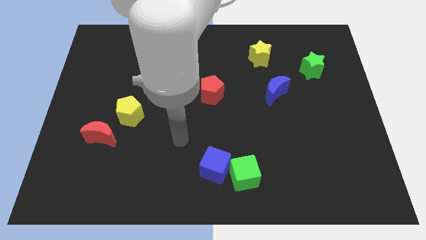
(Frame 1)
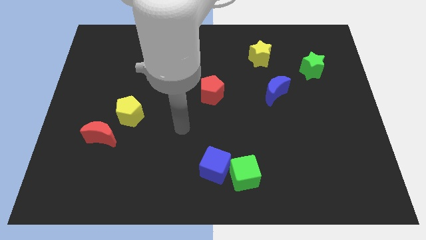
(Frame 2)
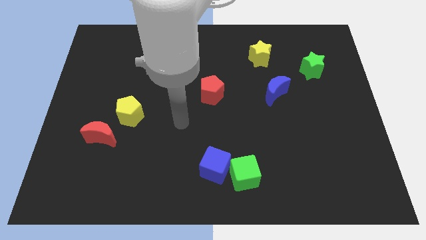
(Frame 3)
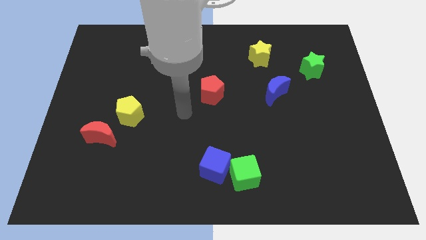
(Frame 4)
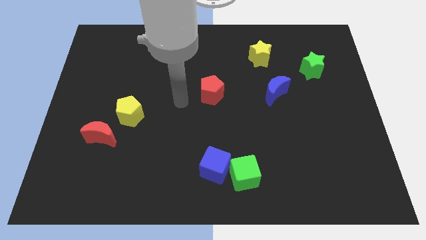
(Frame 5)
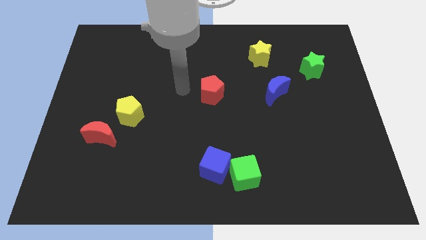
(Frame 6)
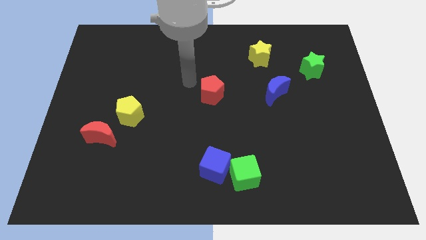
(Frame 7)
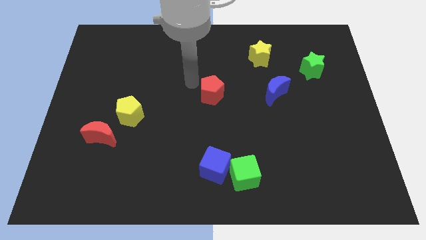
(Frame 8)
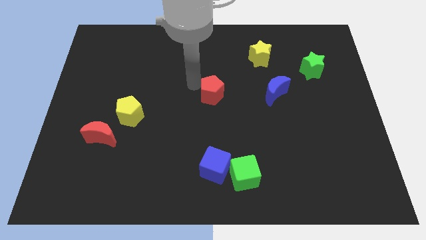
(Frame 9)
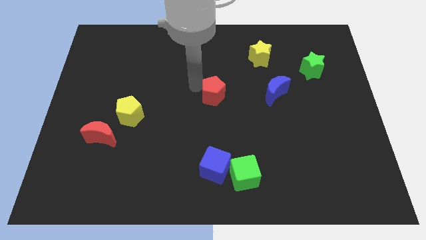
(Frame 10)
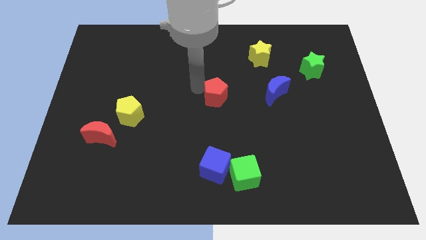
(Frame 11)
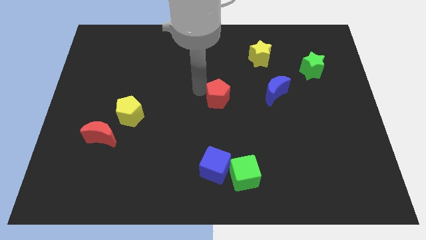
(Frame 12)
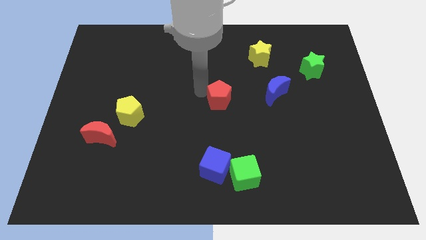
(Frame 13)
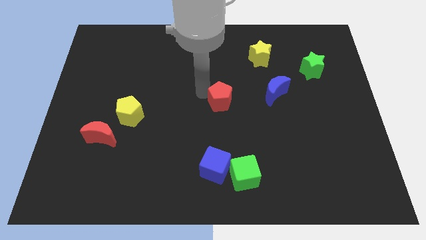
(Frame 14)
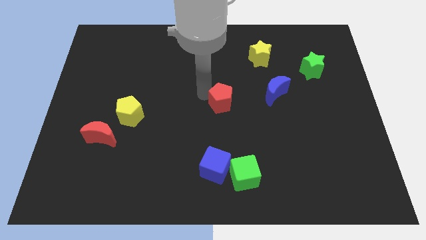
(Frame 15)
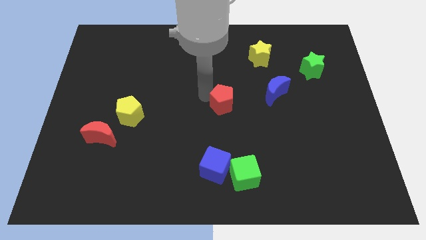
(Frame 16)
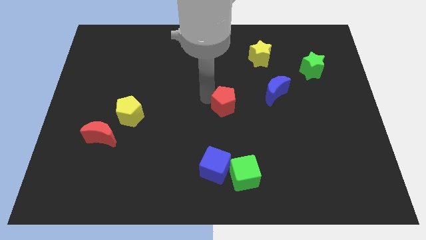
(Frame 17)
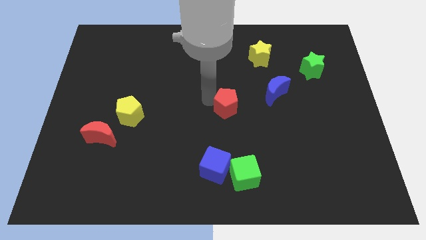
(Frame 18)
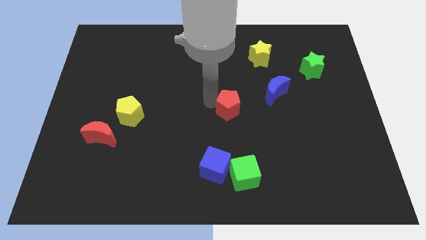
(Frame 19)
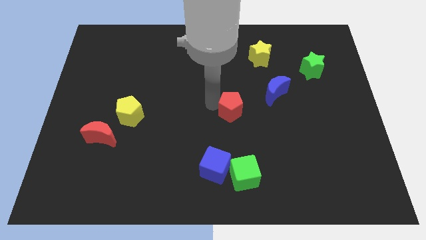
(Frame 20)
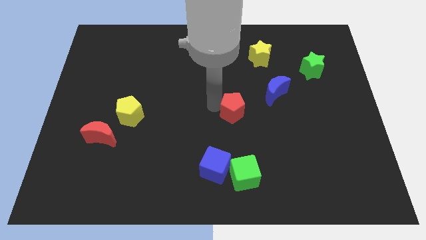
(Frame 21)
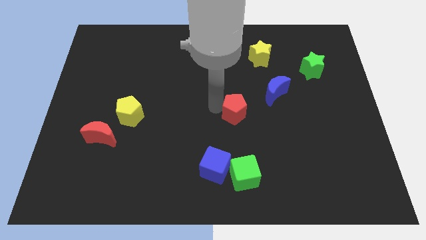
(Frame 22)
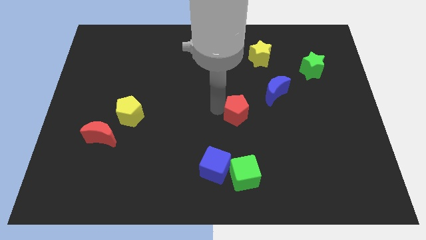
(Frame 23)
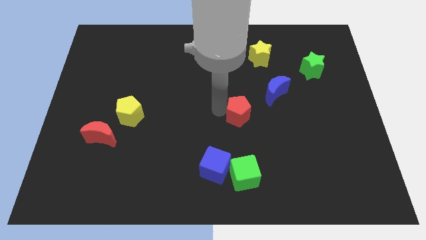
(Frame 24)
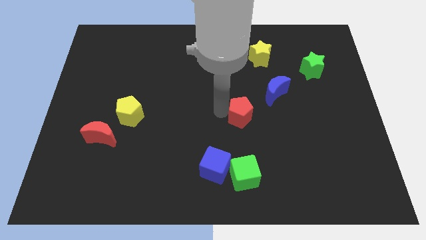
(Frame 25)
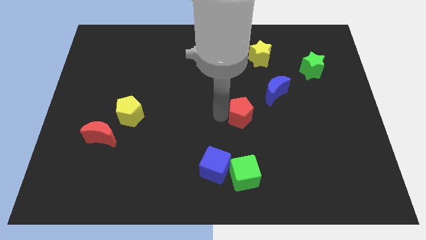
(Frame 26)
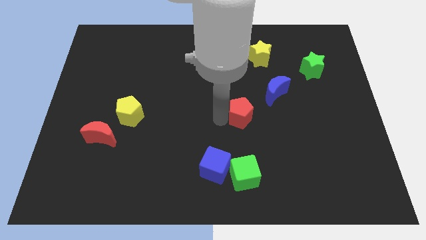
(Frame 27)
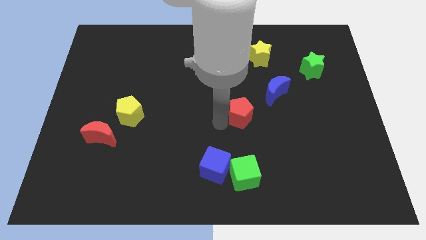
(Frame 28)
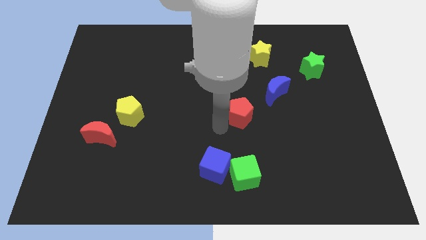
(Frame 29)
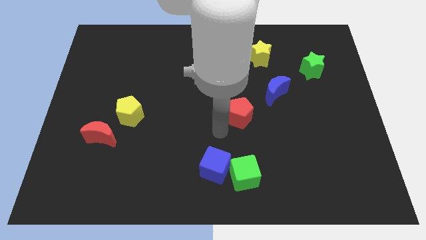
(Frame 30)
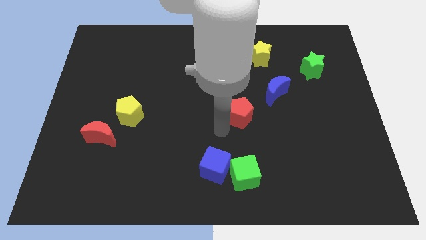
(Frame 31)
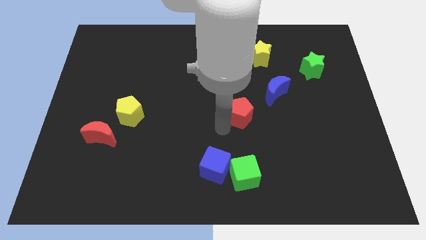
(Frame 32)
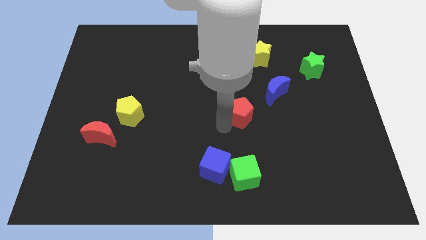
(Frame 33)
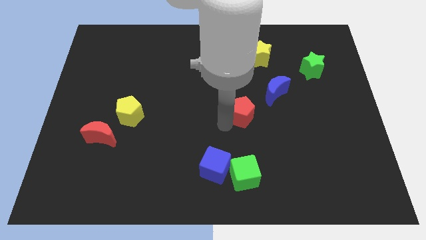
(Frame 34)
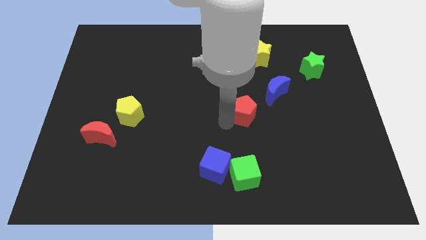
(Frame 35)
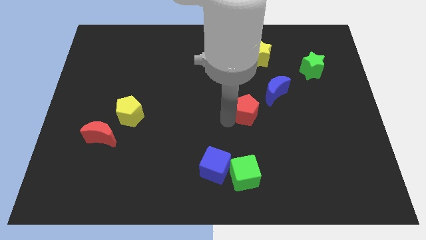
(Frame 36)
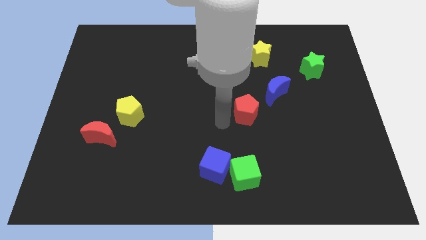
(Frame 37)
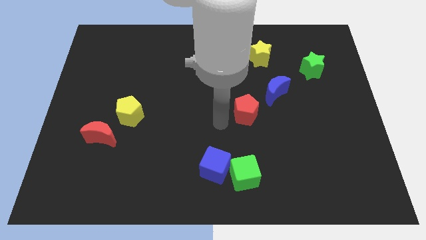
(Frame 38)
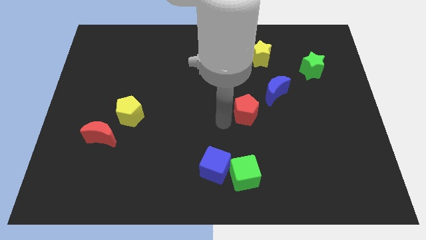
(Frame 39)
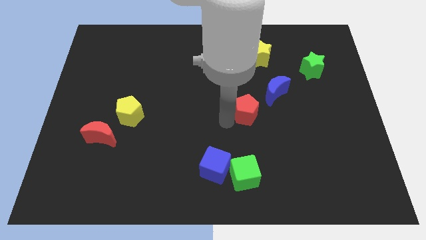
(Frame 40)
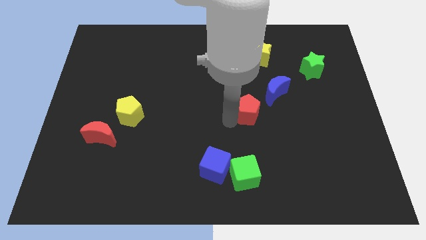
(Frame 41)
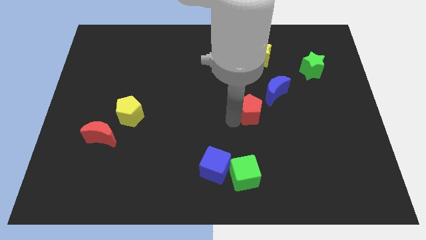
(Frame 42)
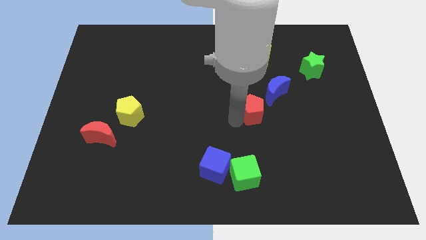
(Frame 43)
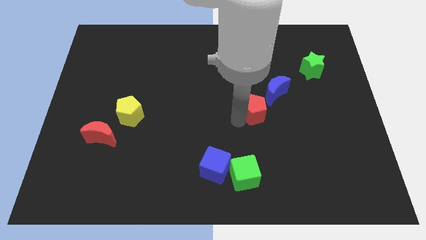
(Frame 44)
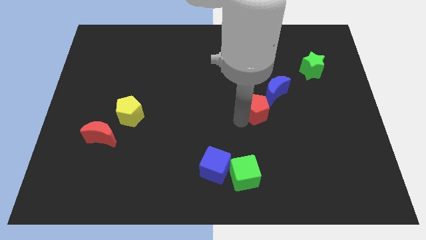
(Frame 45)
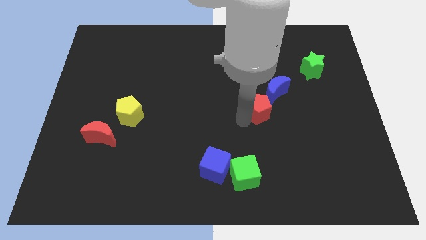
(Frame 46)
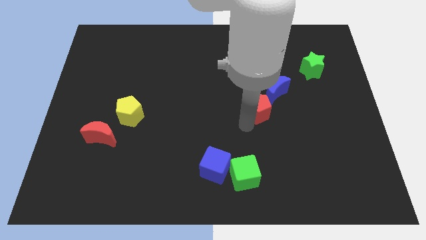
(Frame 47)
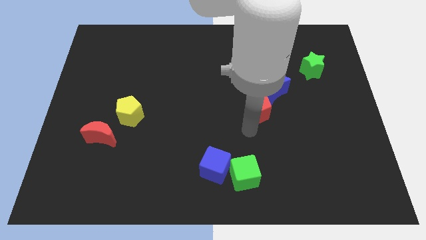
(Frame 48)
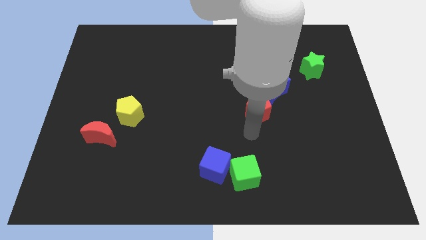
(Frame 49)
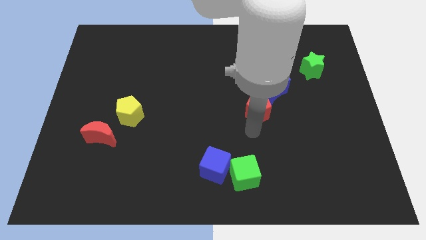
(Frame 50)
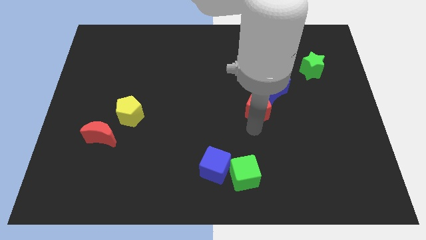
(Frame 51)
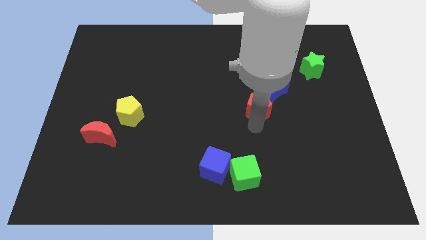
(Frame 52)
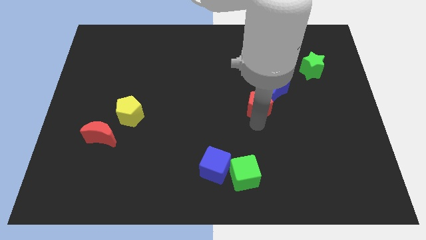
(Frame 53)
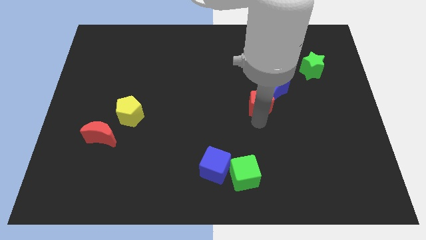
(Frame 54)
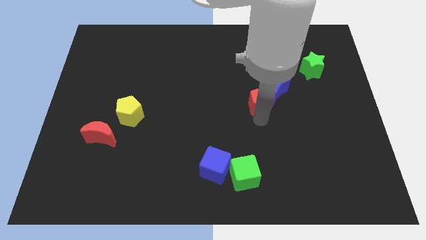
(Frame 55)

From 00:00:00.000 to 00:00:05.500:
slide the red pentagon to the bottom of the yellow star

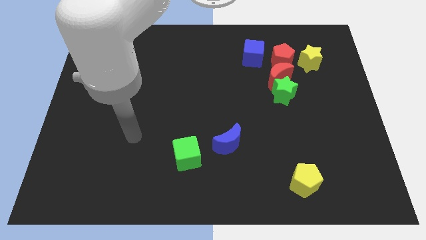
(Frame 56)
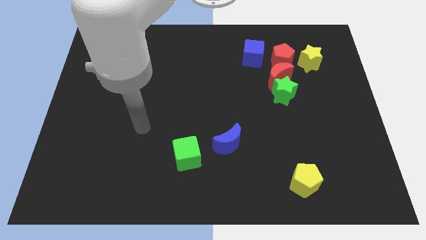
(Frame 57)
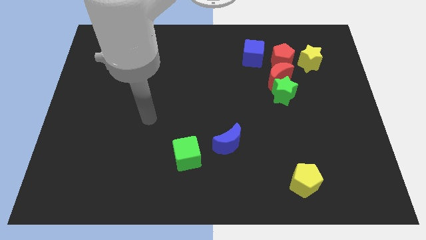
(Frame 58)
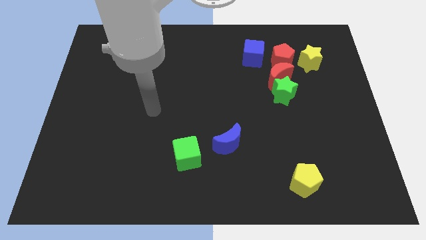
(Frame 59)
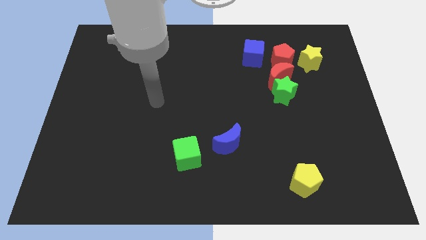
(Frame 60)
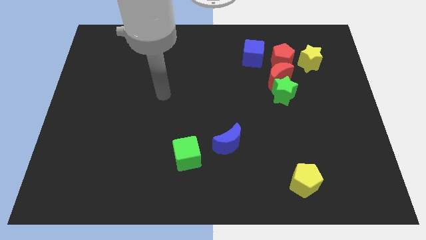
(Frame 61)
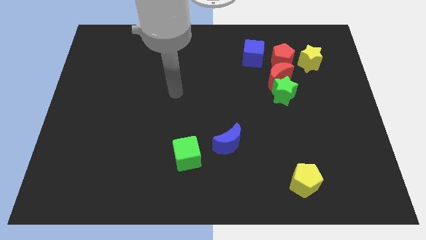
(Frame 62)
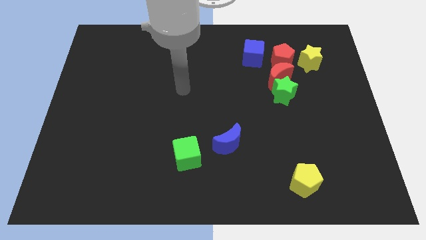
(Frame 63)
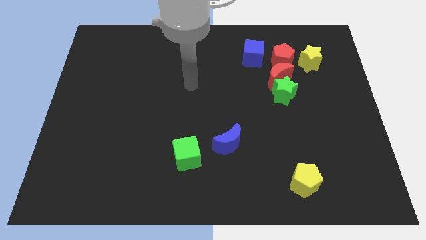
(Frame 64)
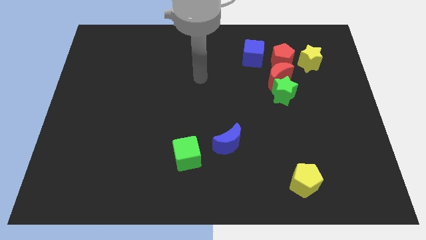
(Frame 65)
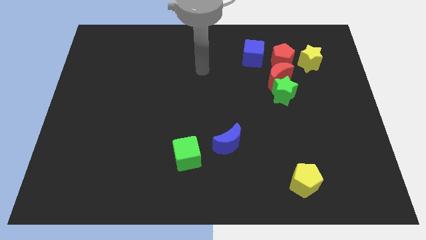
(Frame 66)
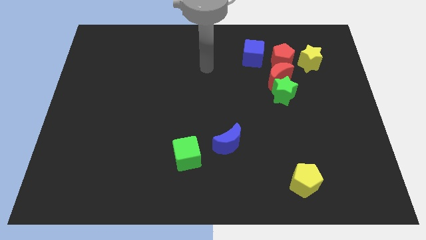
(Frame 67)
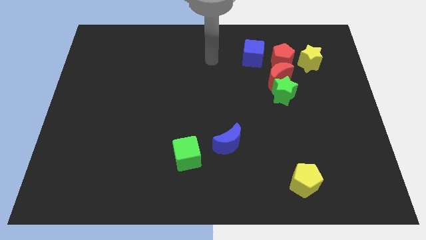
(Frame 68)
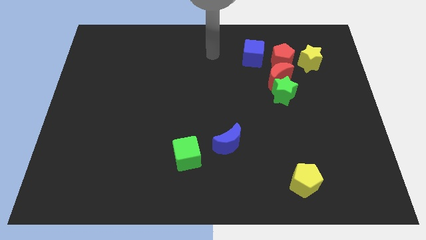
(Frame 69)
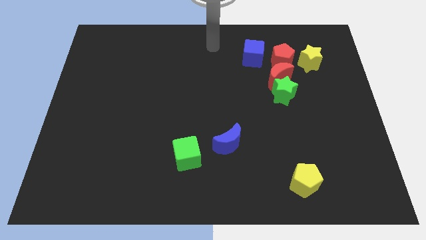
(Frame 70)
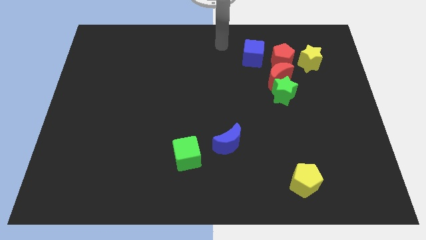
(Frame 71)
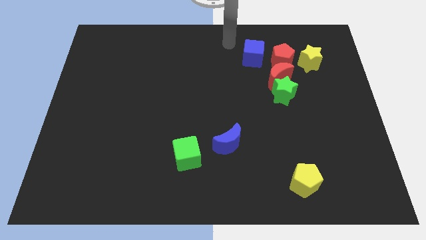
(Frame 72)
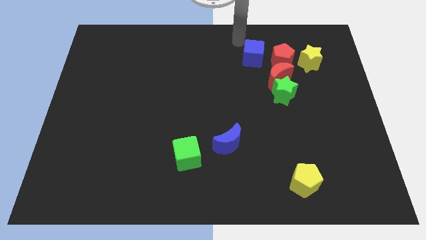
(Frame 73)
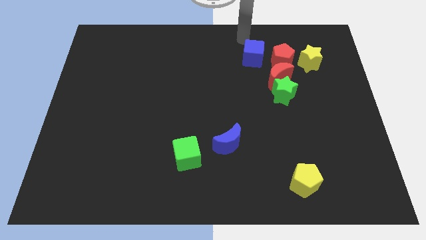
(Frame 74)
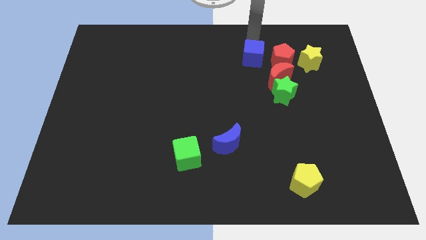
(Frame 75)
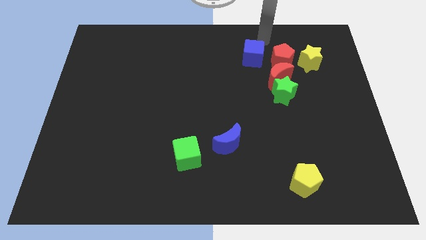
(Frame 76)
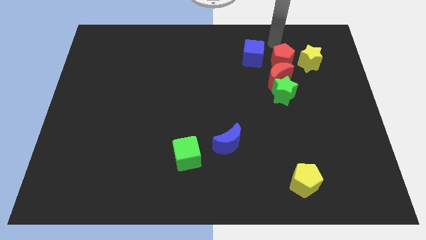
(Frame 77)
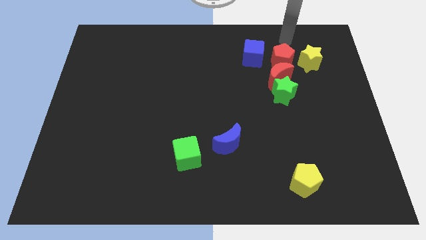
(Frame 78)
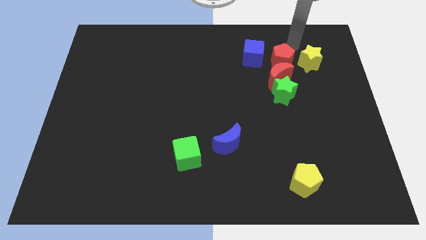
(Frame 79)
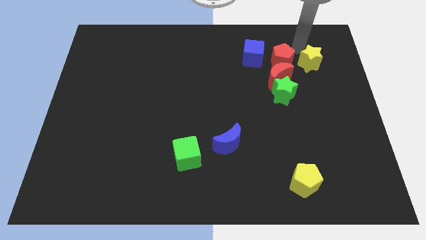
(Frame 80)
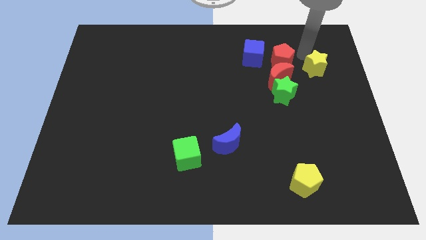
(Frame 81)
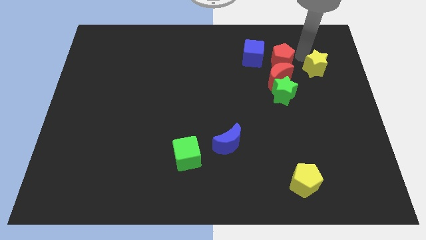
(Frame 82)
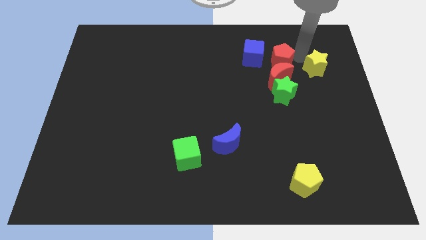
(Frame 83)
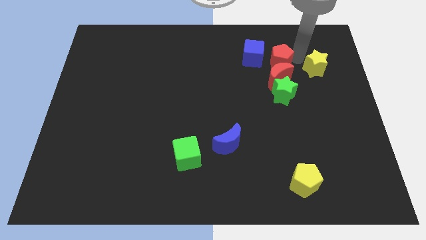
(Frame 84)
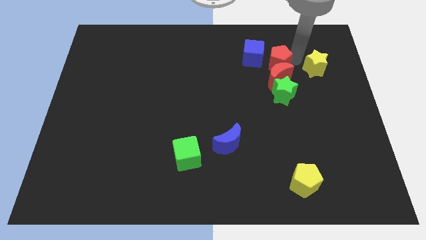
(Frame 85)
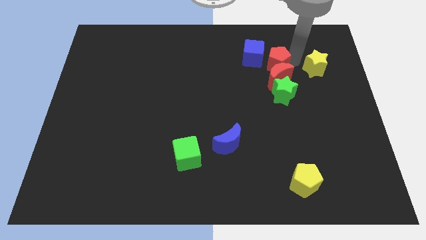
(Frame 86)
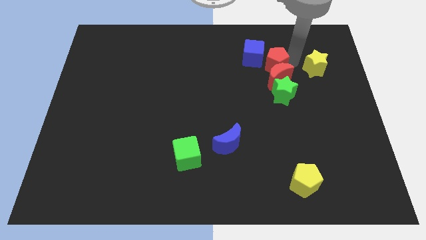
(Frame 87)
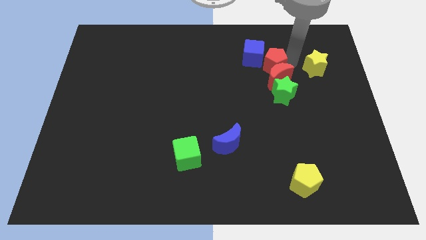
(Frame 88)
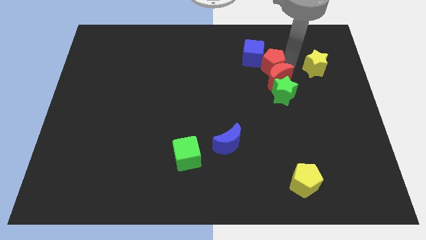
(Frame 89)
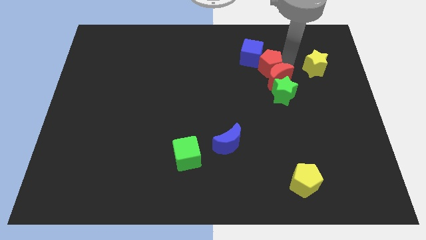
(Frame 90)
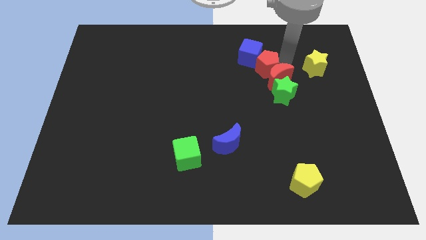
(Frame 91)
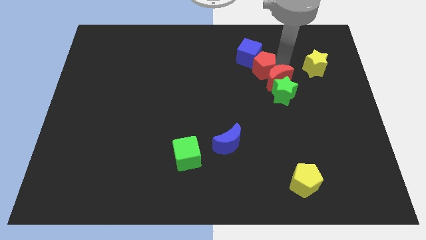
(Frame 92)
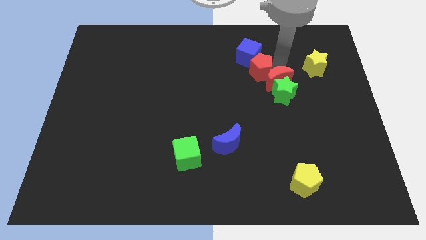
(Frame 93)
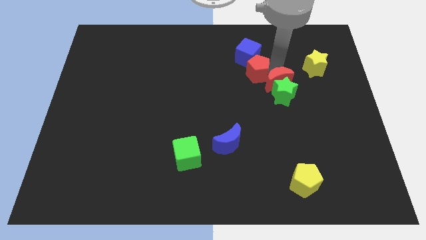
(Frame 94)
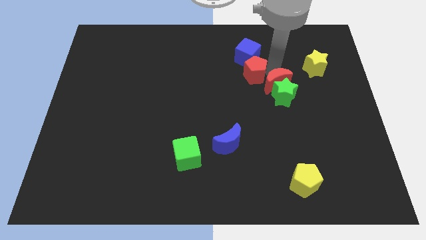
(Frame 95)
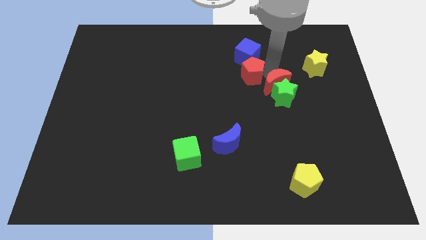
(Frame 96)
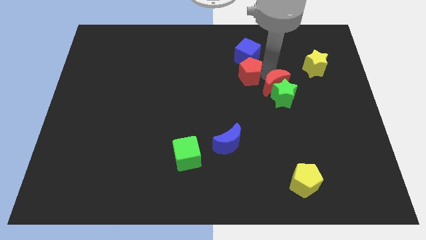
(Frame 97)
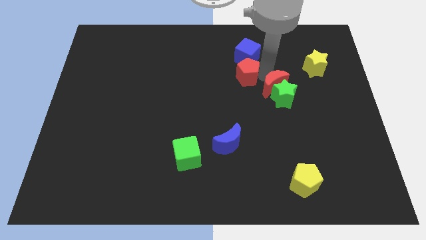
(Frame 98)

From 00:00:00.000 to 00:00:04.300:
push the red pentagon diagonally down and to the left of the blue cube
